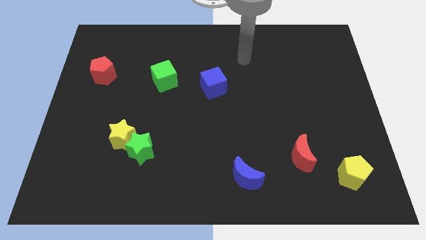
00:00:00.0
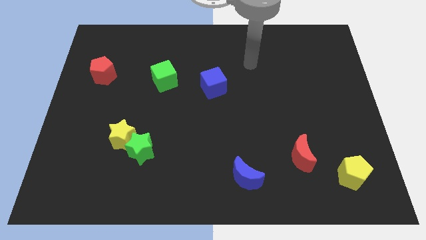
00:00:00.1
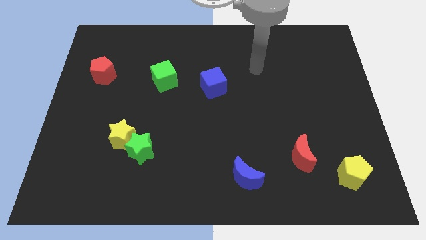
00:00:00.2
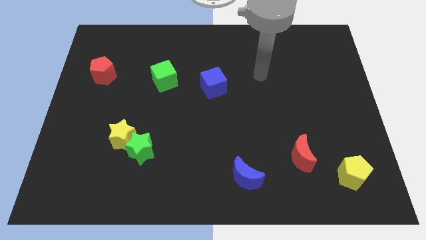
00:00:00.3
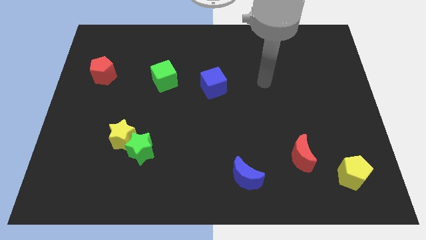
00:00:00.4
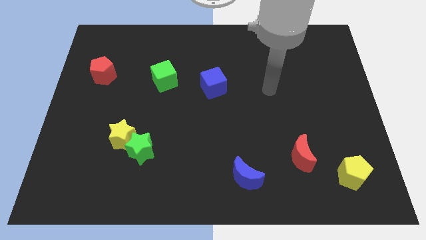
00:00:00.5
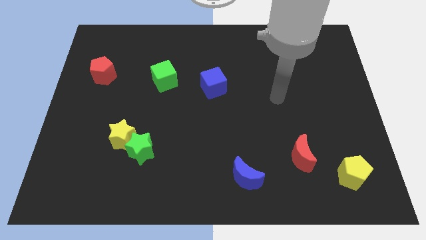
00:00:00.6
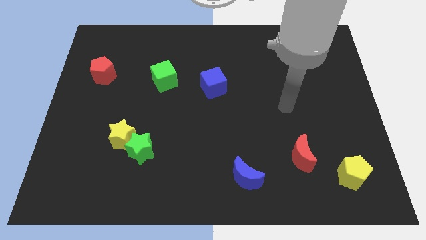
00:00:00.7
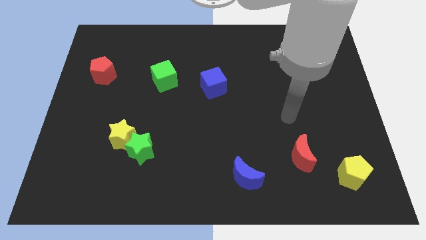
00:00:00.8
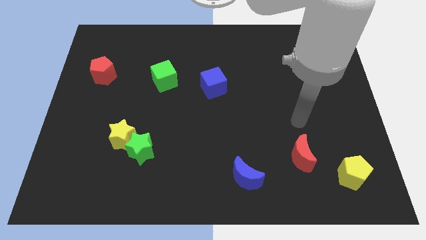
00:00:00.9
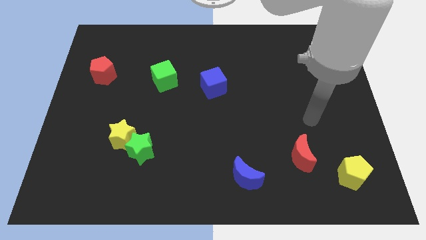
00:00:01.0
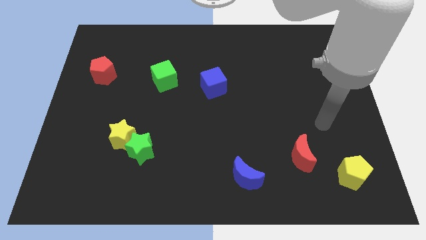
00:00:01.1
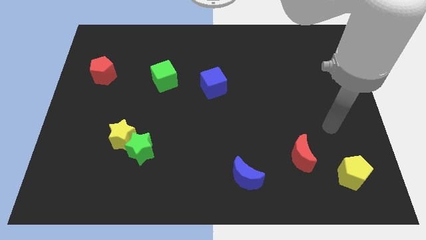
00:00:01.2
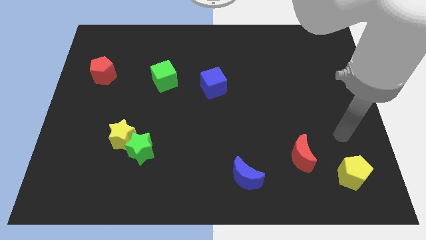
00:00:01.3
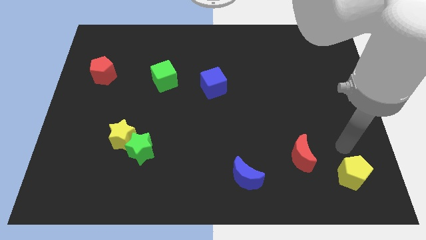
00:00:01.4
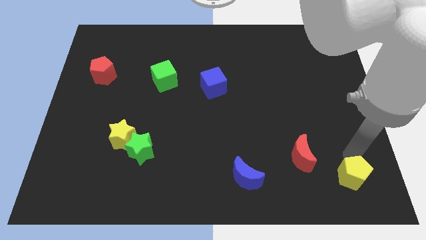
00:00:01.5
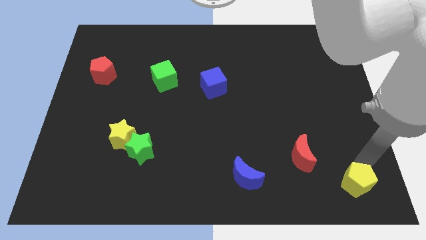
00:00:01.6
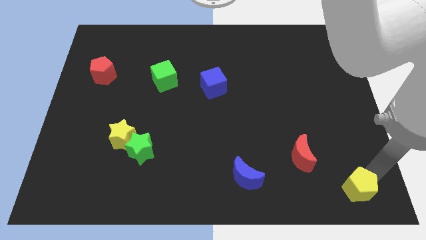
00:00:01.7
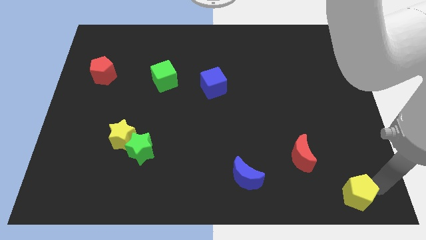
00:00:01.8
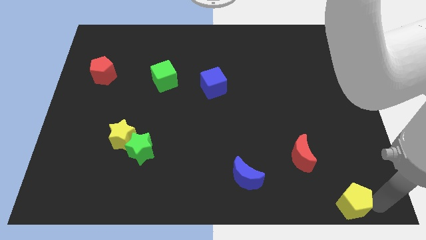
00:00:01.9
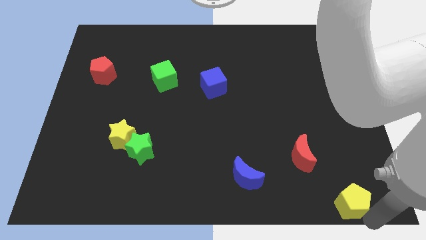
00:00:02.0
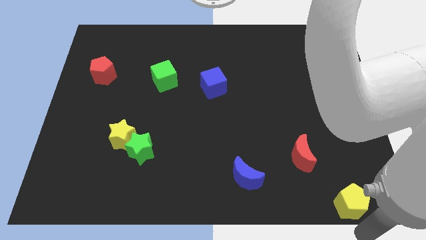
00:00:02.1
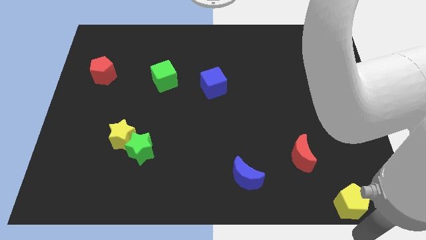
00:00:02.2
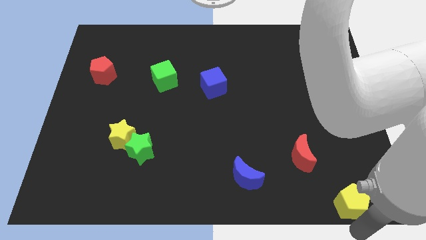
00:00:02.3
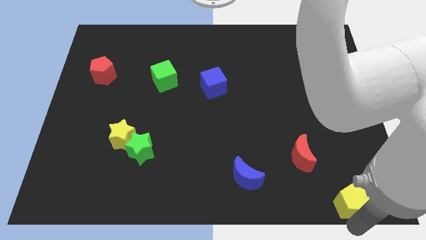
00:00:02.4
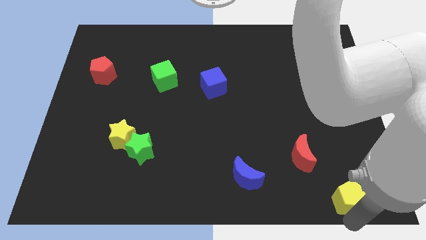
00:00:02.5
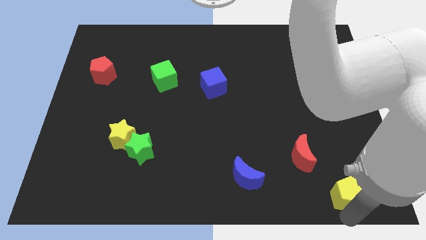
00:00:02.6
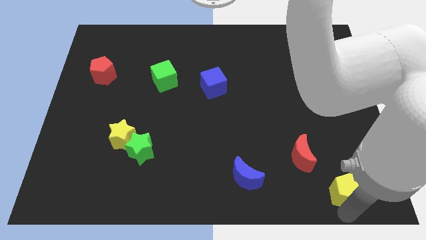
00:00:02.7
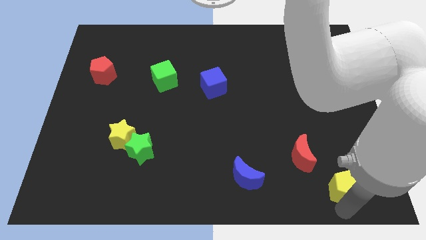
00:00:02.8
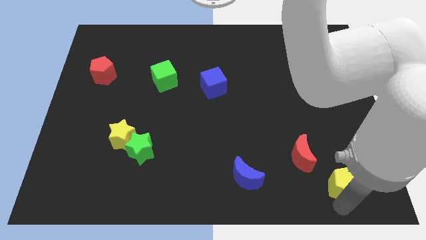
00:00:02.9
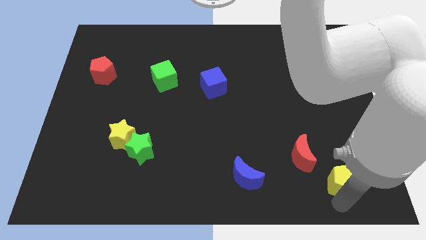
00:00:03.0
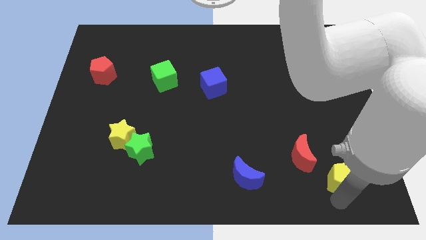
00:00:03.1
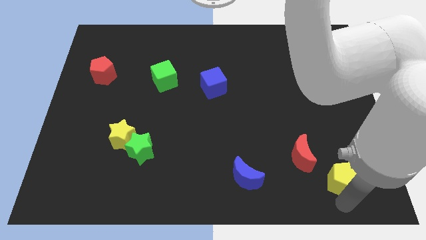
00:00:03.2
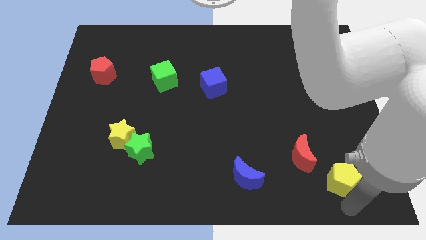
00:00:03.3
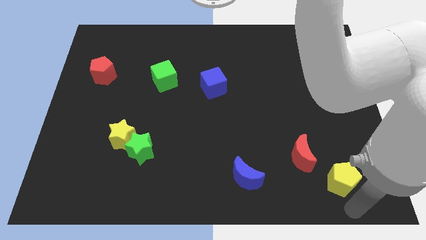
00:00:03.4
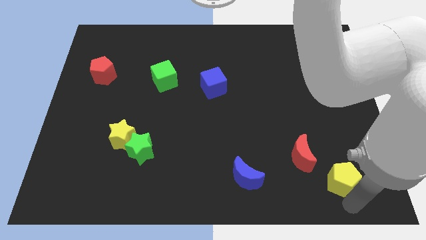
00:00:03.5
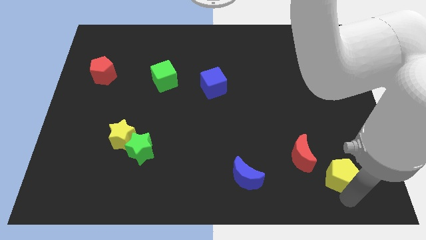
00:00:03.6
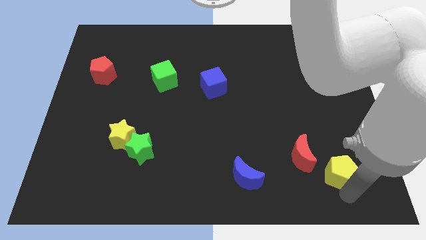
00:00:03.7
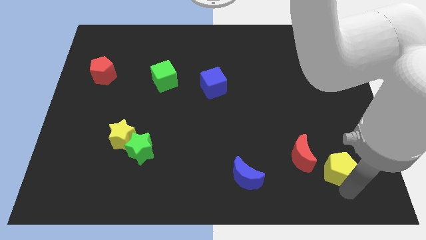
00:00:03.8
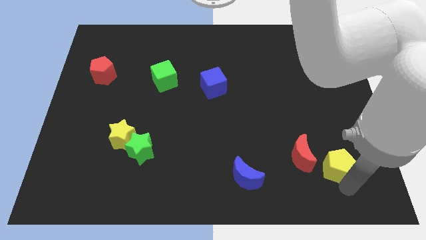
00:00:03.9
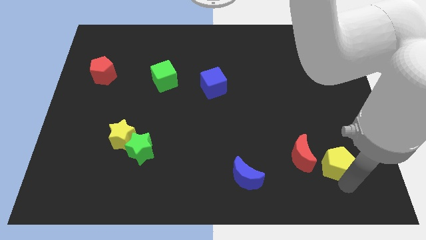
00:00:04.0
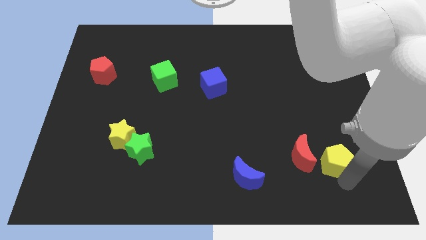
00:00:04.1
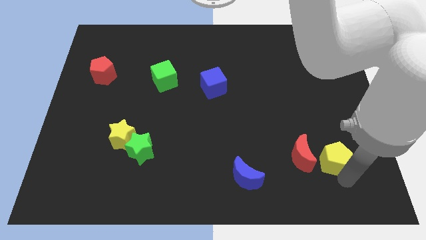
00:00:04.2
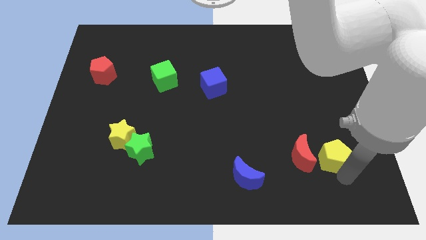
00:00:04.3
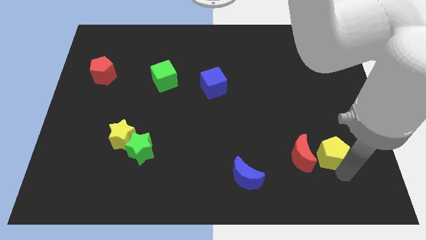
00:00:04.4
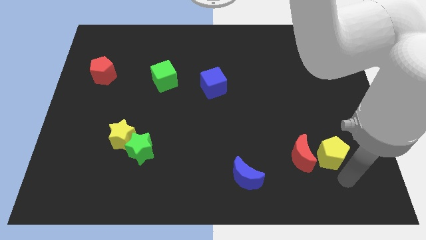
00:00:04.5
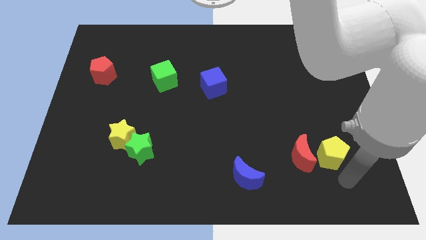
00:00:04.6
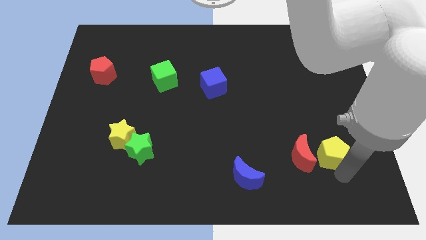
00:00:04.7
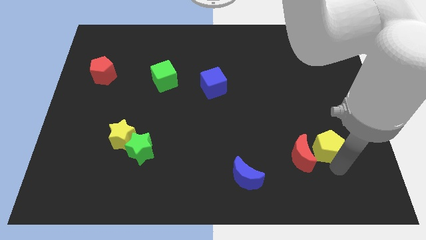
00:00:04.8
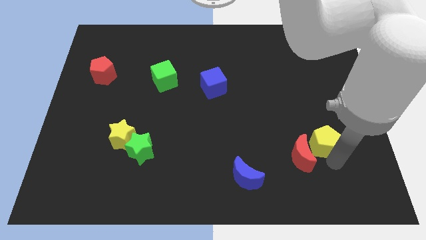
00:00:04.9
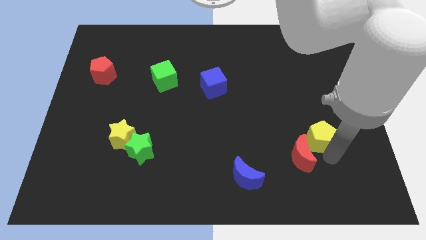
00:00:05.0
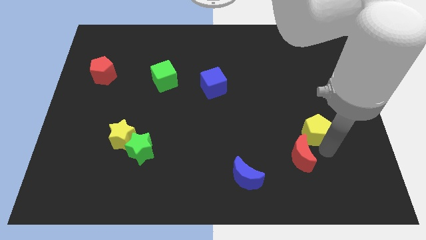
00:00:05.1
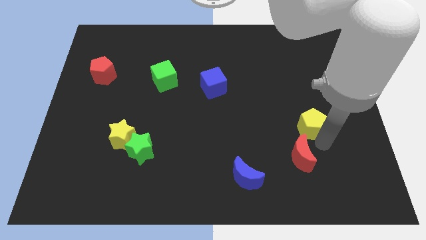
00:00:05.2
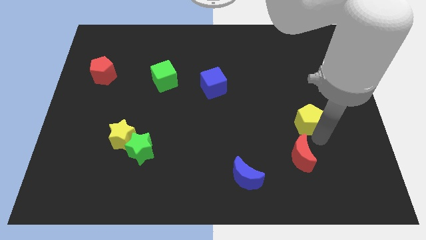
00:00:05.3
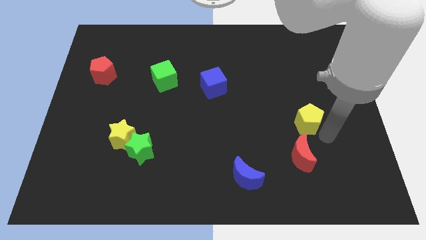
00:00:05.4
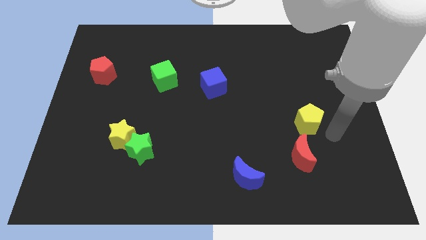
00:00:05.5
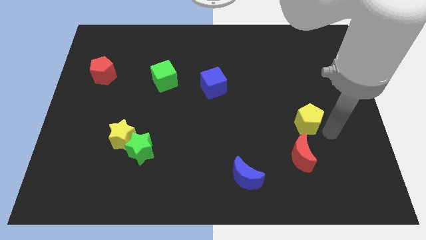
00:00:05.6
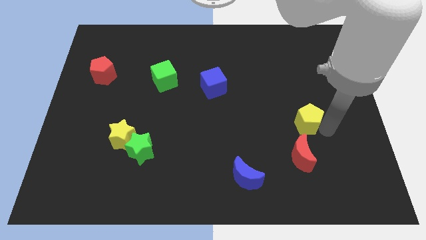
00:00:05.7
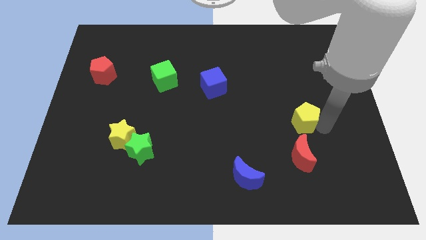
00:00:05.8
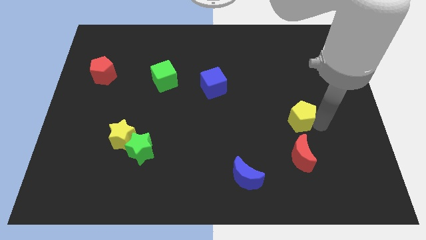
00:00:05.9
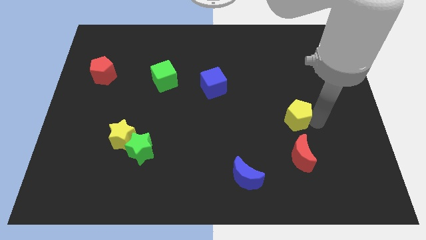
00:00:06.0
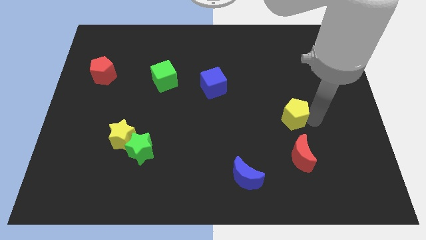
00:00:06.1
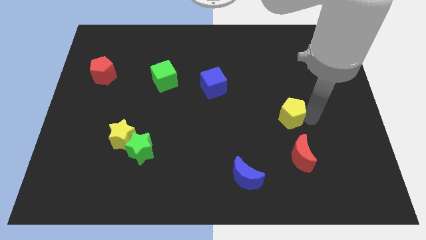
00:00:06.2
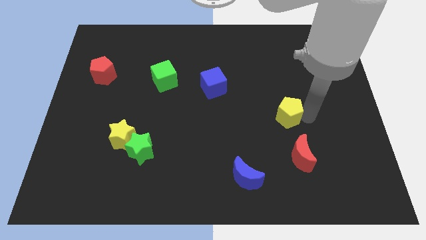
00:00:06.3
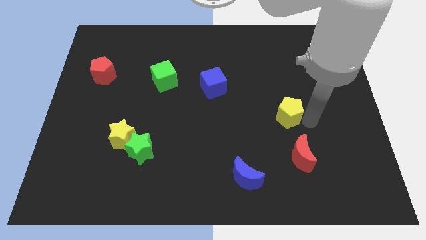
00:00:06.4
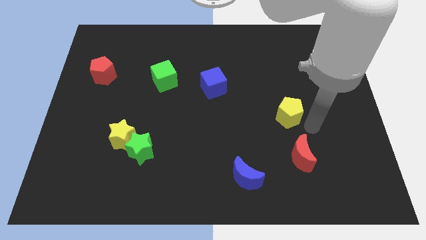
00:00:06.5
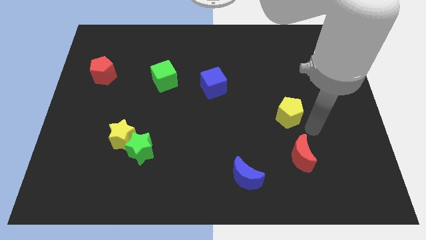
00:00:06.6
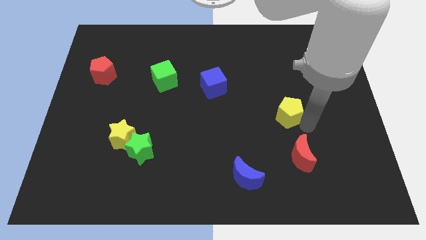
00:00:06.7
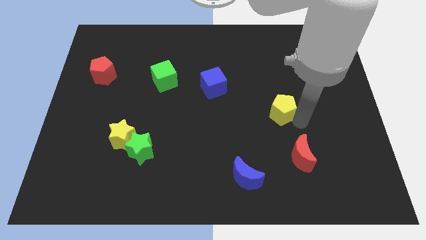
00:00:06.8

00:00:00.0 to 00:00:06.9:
slide the yellow pentagon up and to the left diagonally

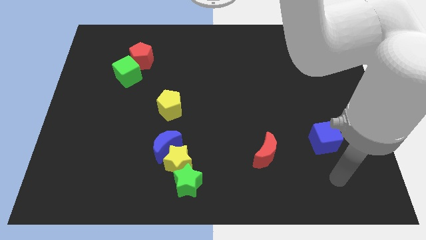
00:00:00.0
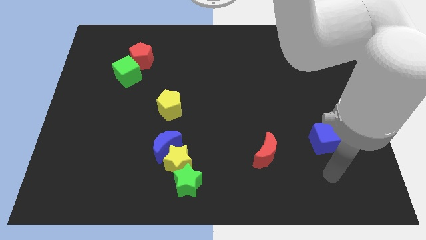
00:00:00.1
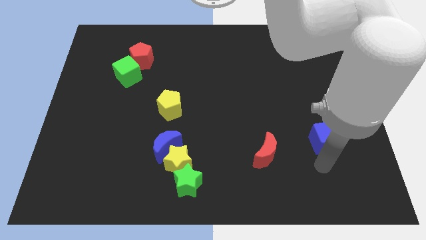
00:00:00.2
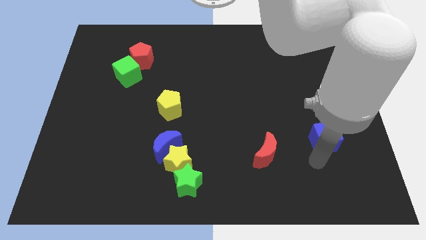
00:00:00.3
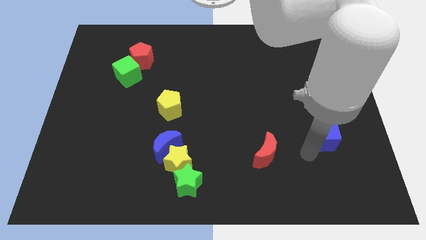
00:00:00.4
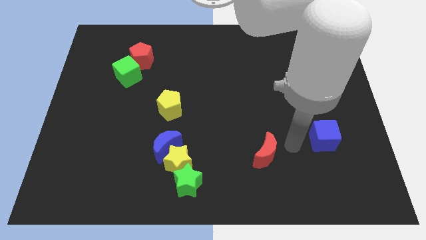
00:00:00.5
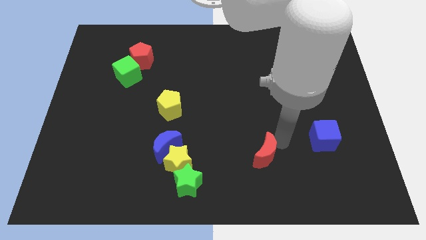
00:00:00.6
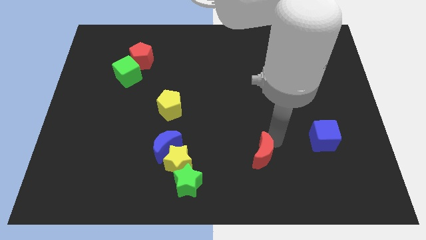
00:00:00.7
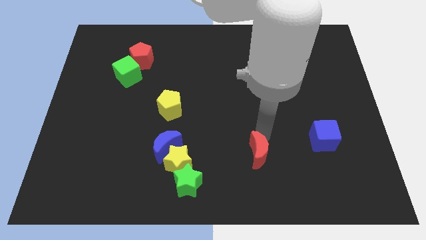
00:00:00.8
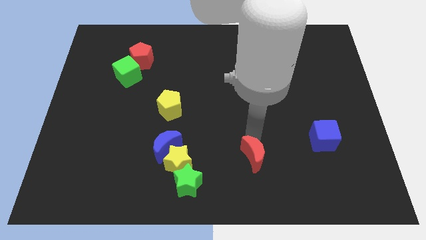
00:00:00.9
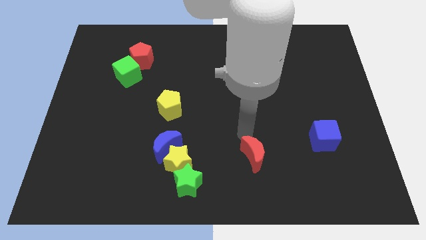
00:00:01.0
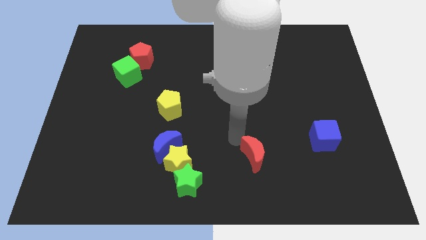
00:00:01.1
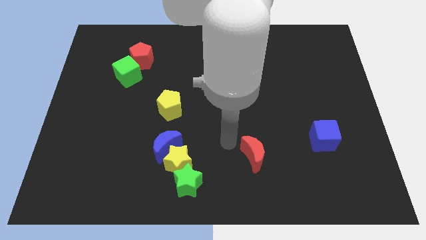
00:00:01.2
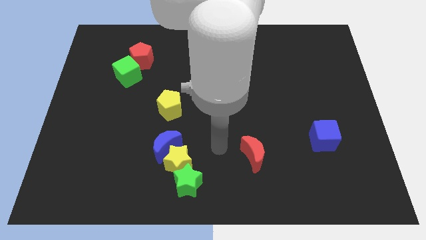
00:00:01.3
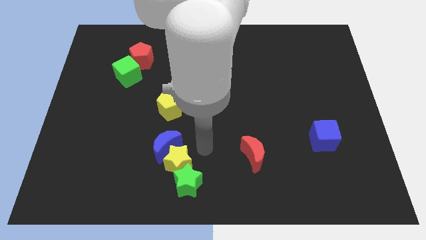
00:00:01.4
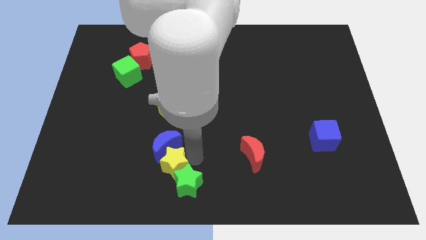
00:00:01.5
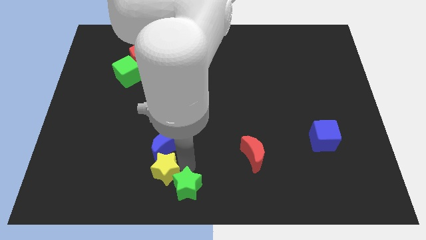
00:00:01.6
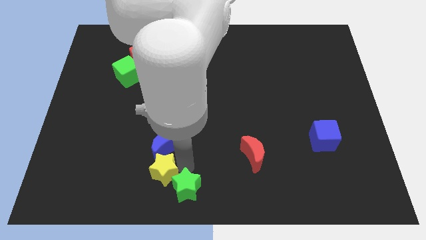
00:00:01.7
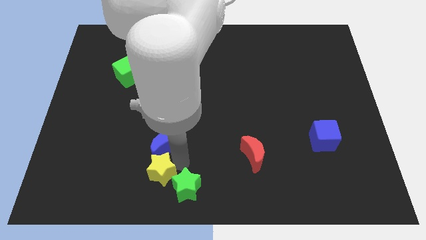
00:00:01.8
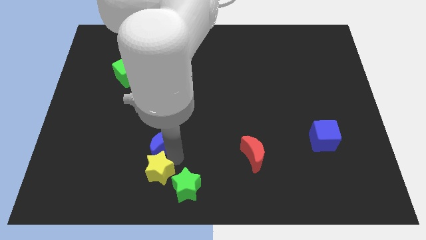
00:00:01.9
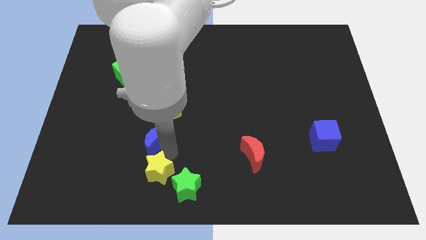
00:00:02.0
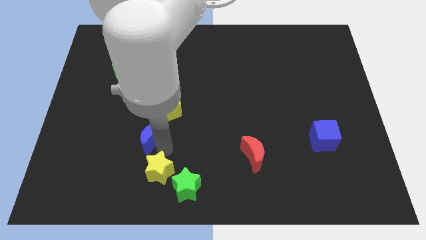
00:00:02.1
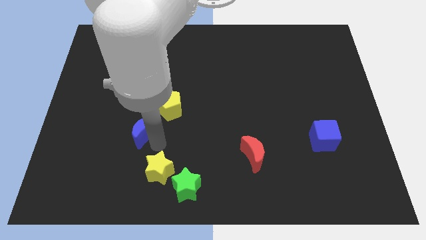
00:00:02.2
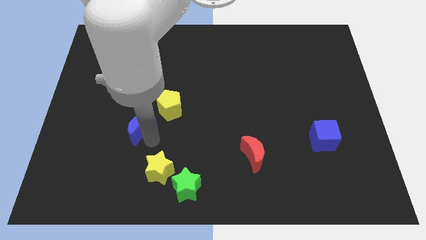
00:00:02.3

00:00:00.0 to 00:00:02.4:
slightly move the blue moon diagonally upwards and left
